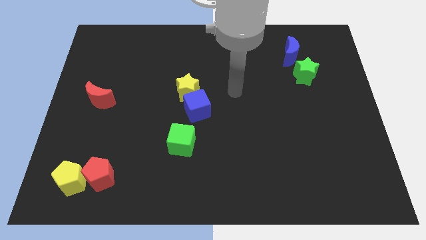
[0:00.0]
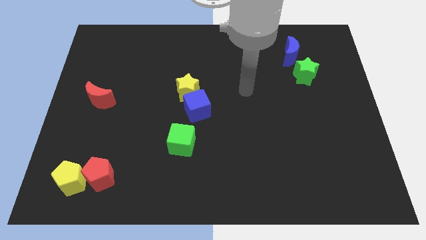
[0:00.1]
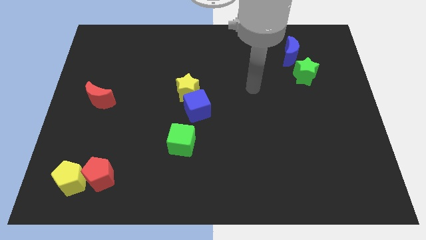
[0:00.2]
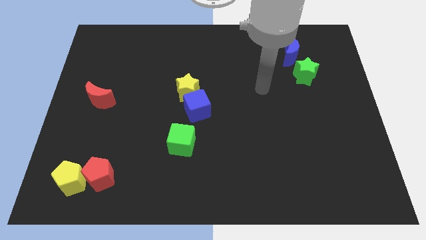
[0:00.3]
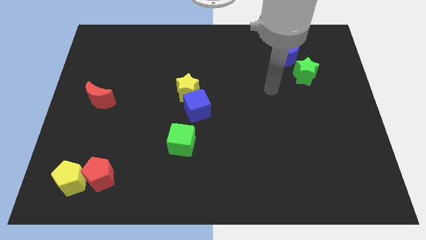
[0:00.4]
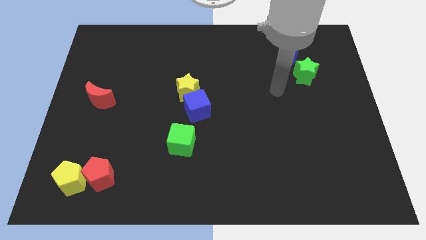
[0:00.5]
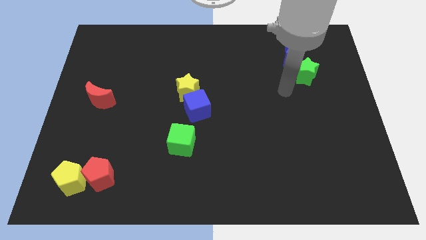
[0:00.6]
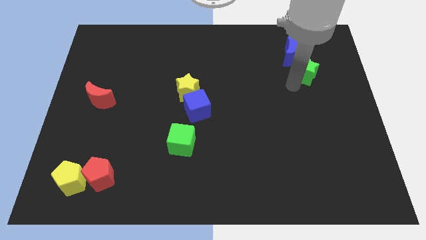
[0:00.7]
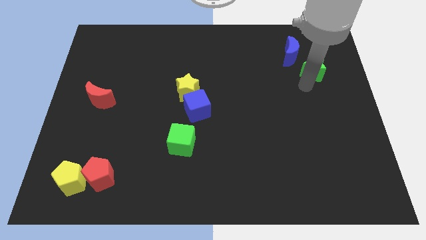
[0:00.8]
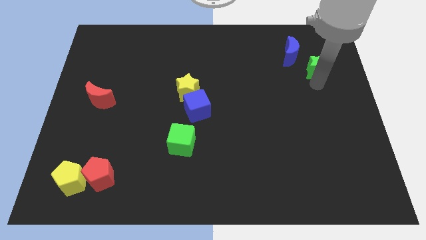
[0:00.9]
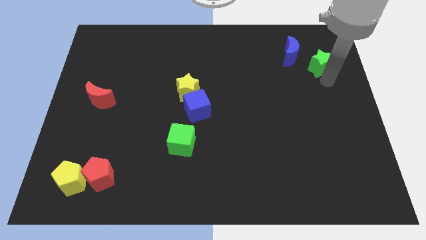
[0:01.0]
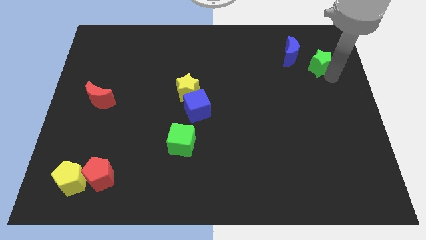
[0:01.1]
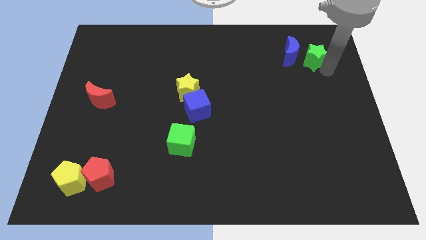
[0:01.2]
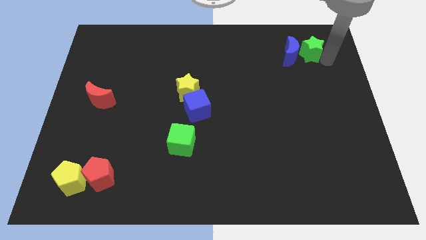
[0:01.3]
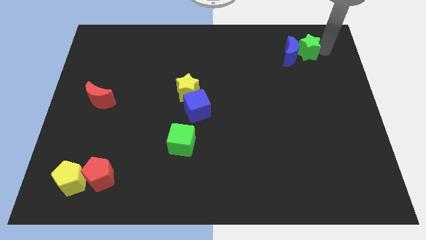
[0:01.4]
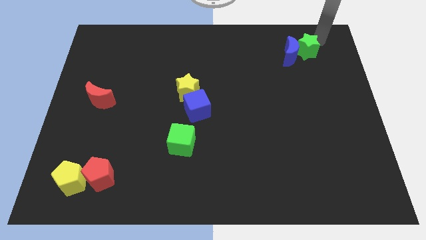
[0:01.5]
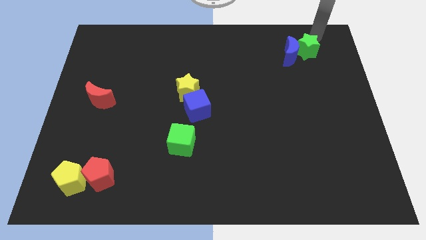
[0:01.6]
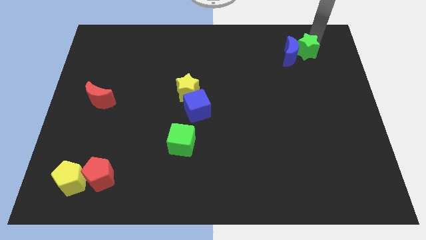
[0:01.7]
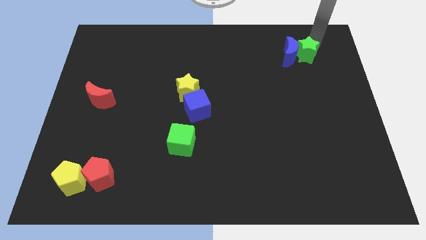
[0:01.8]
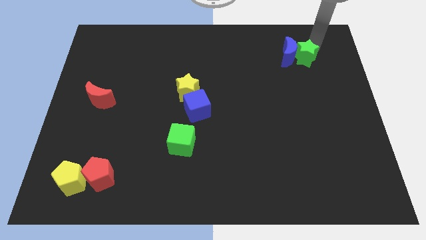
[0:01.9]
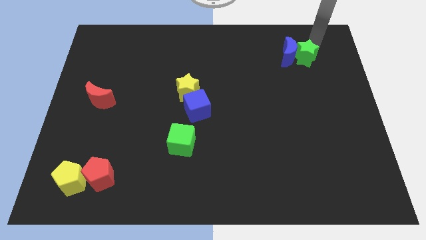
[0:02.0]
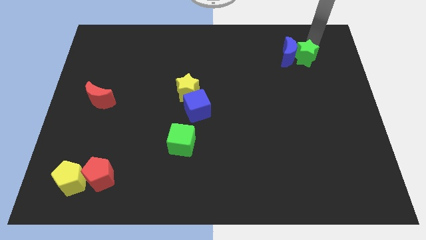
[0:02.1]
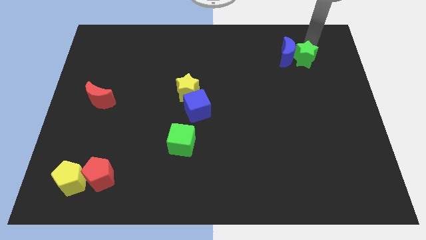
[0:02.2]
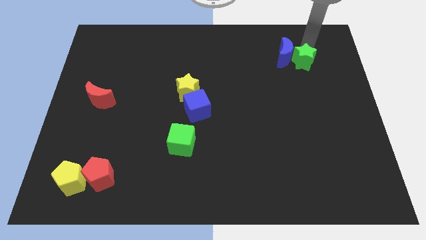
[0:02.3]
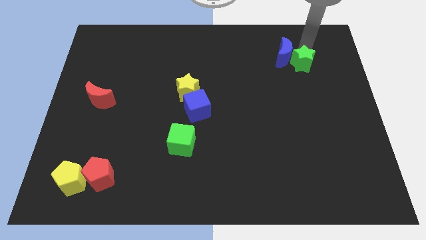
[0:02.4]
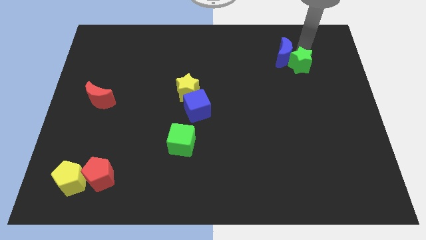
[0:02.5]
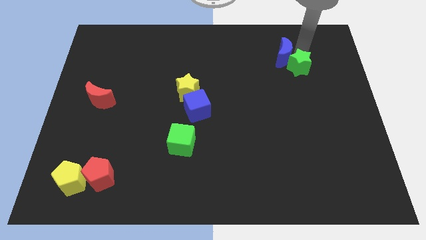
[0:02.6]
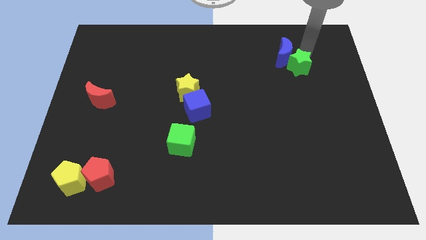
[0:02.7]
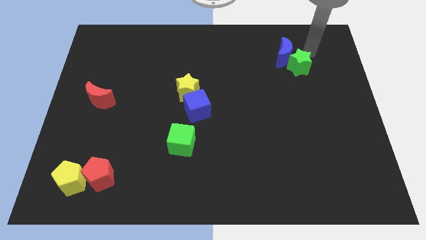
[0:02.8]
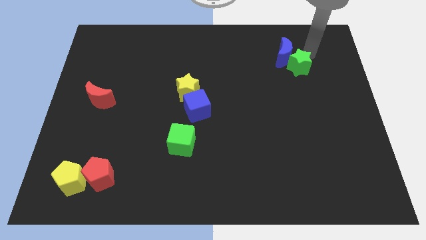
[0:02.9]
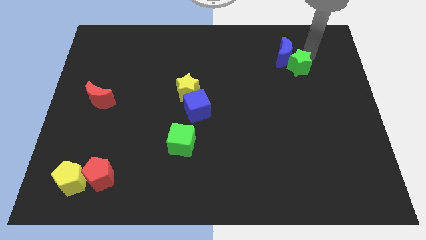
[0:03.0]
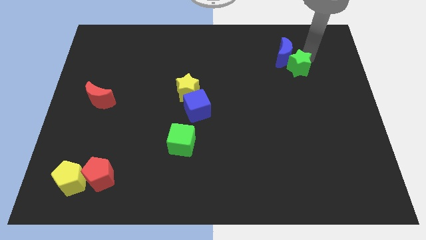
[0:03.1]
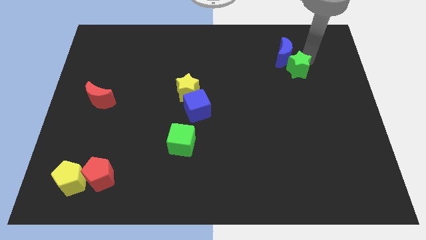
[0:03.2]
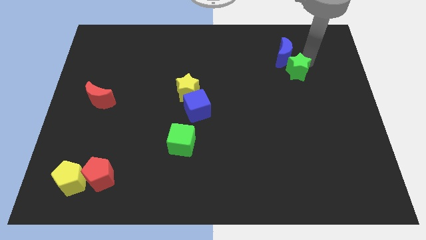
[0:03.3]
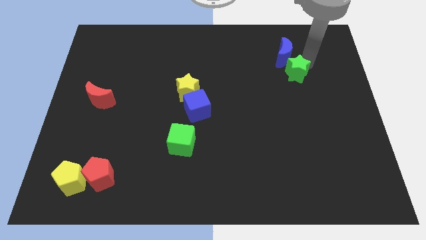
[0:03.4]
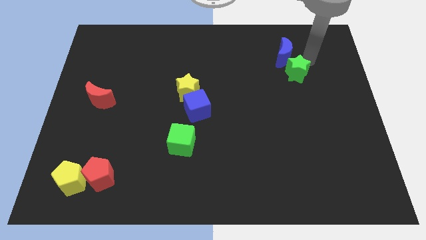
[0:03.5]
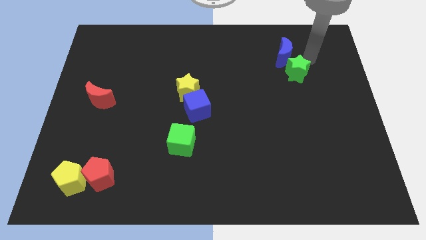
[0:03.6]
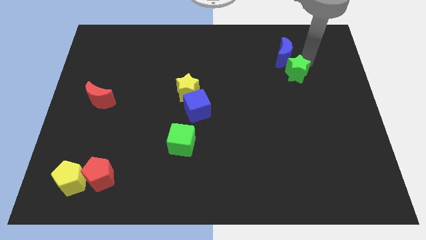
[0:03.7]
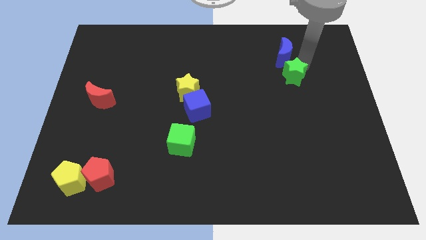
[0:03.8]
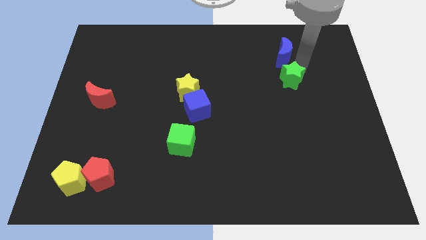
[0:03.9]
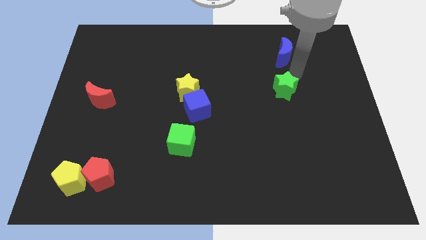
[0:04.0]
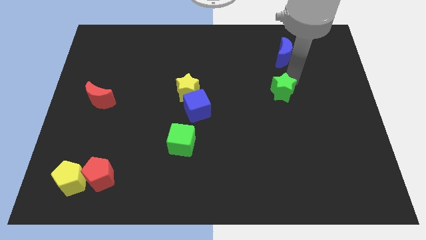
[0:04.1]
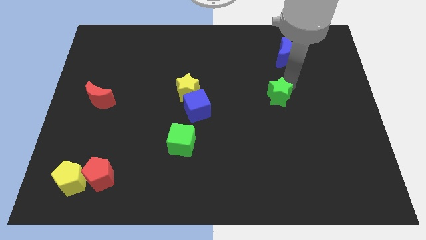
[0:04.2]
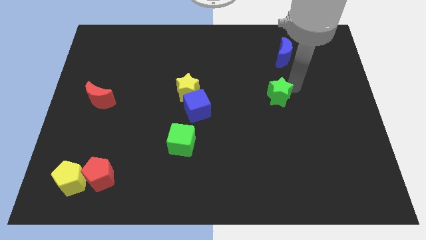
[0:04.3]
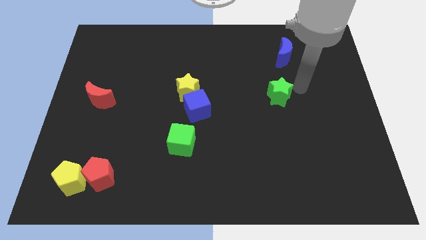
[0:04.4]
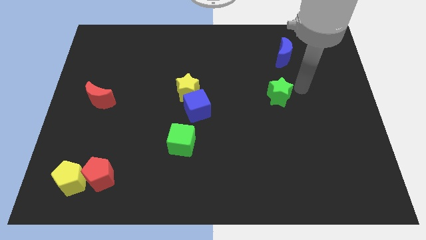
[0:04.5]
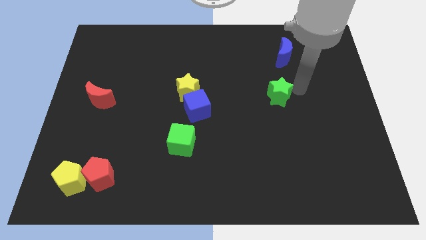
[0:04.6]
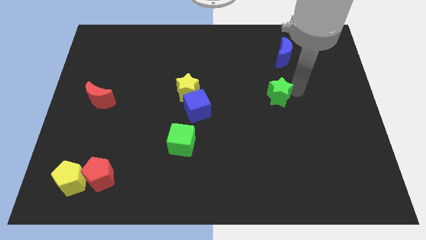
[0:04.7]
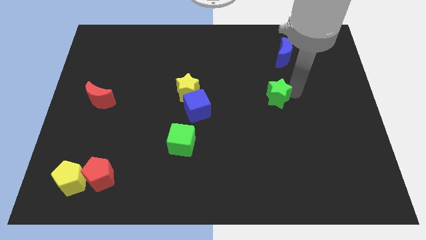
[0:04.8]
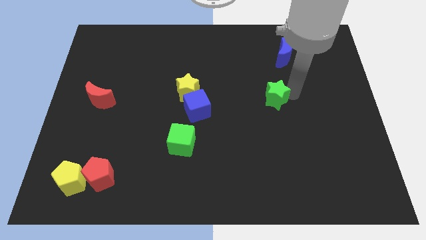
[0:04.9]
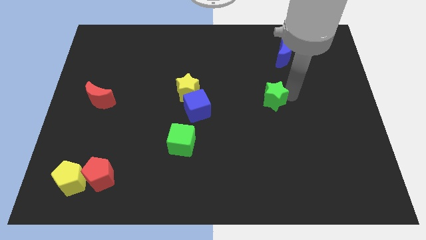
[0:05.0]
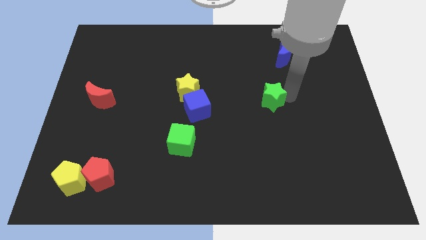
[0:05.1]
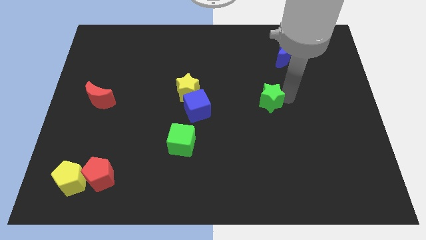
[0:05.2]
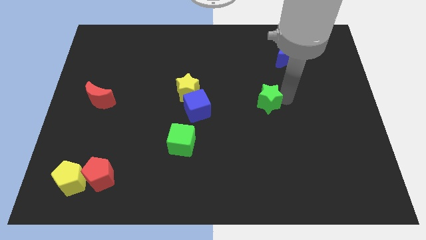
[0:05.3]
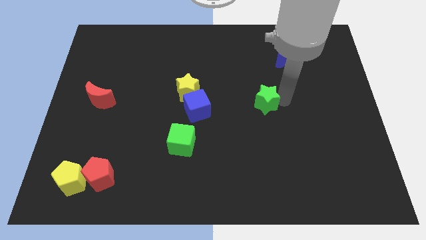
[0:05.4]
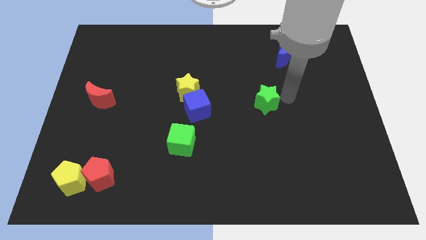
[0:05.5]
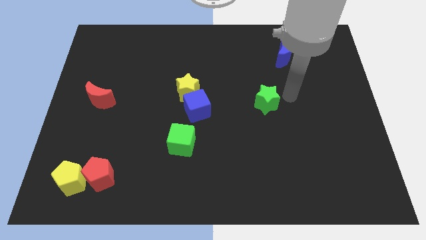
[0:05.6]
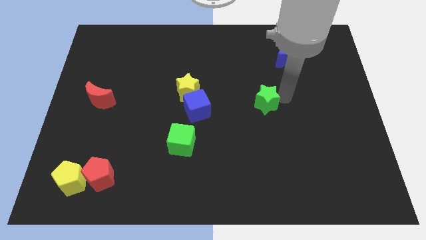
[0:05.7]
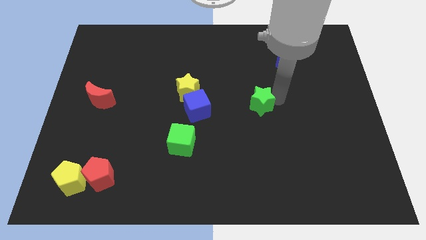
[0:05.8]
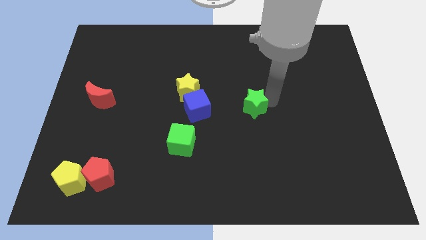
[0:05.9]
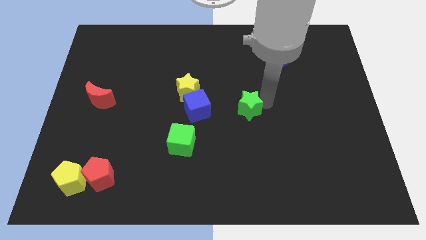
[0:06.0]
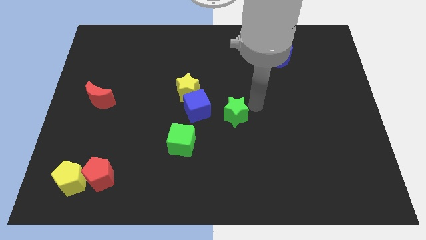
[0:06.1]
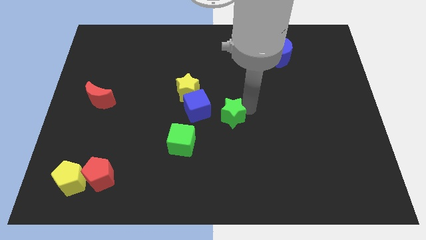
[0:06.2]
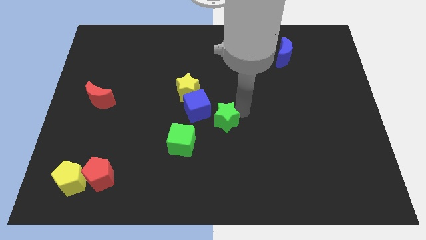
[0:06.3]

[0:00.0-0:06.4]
slide the green star diagonally up and to the right of the green cube
